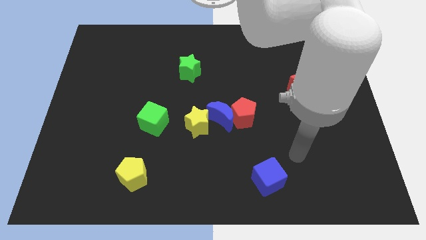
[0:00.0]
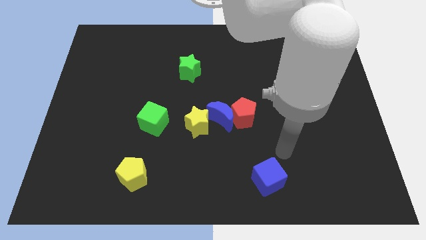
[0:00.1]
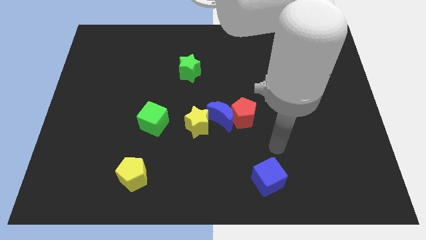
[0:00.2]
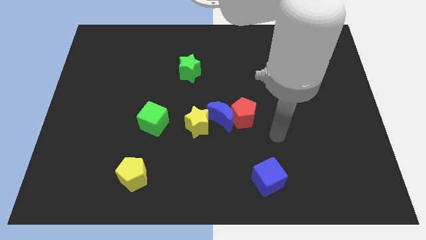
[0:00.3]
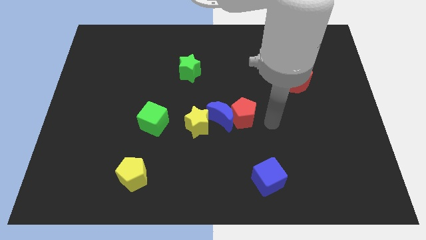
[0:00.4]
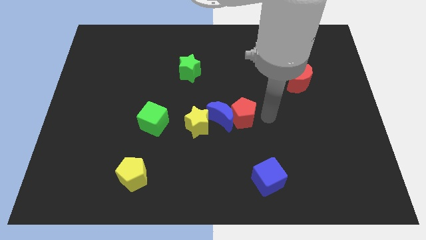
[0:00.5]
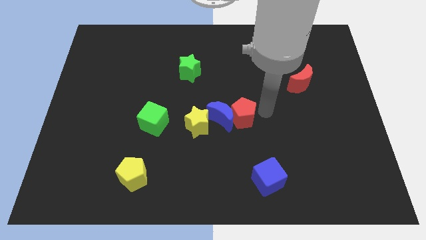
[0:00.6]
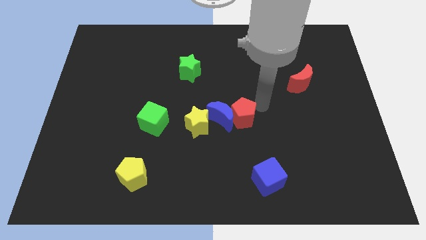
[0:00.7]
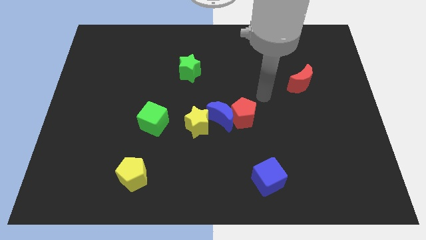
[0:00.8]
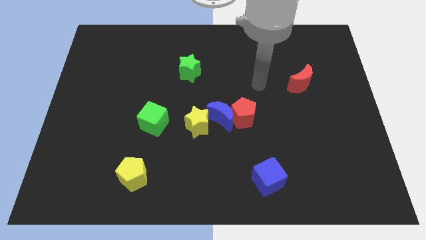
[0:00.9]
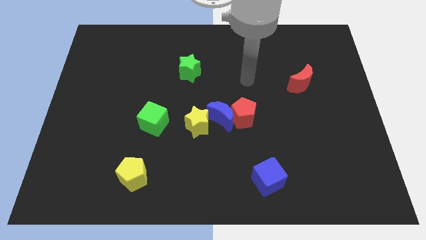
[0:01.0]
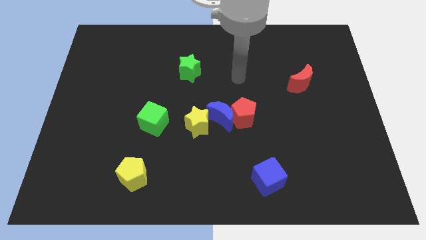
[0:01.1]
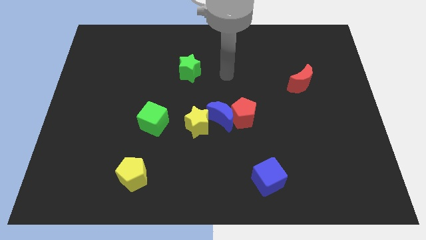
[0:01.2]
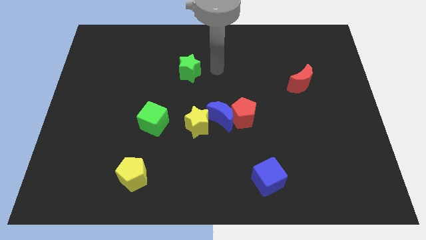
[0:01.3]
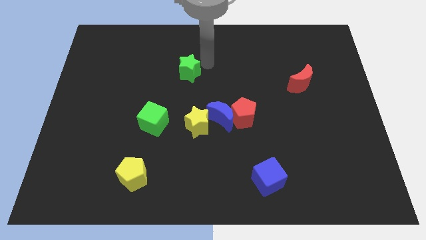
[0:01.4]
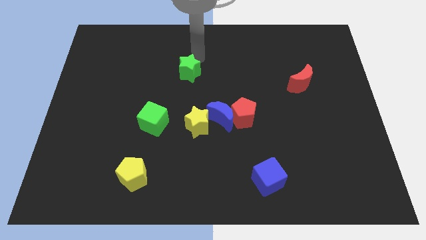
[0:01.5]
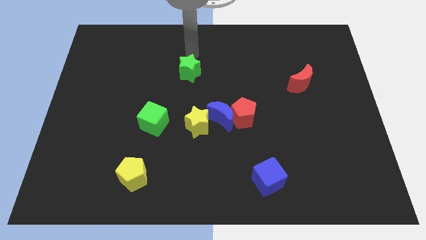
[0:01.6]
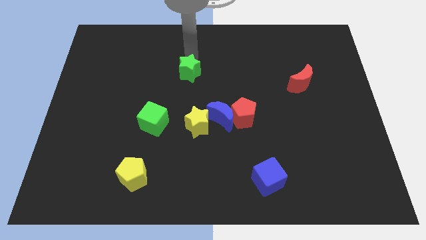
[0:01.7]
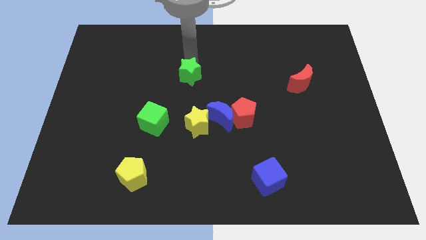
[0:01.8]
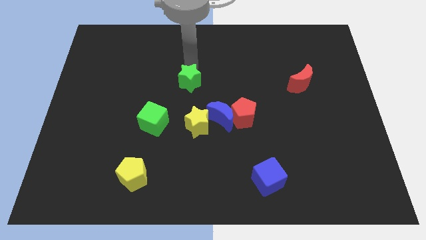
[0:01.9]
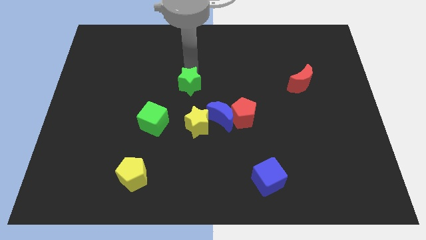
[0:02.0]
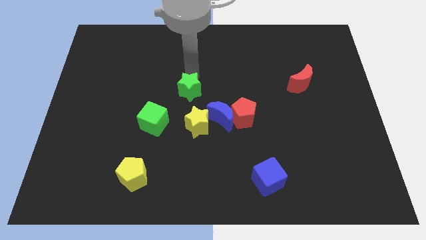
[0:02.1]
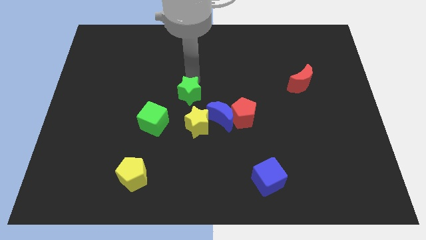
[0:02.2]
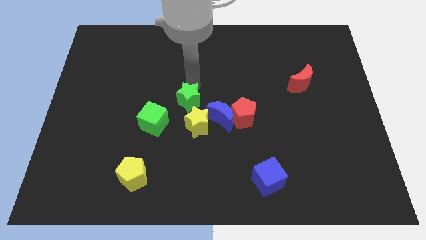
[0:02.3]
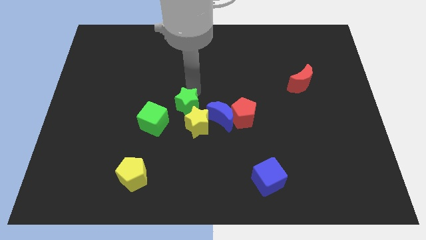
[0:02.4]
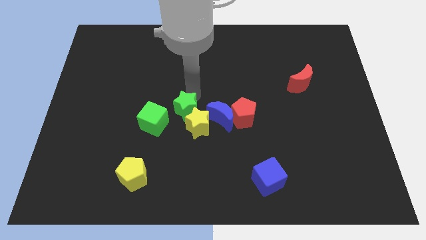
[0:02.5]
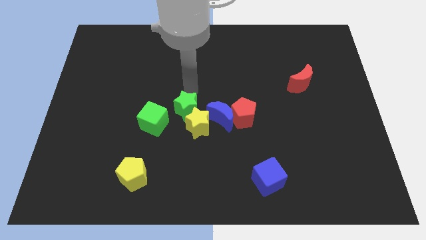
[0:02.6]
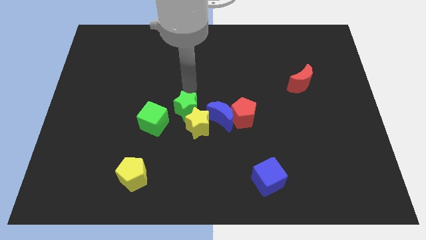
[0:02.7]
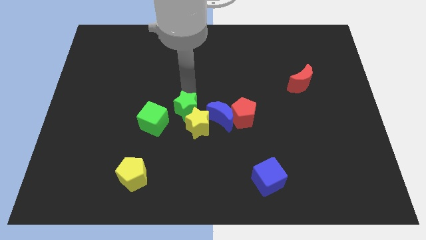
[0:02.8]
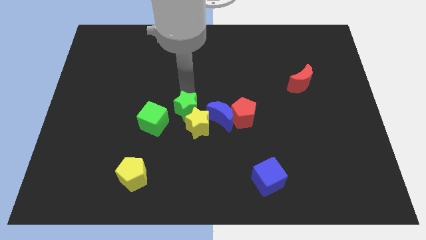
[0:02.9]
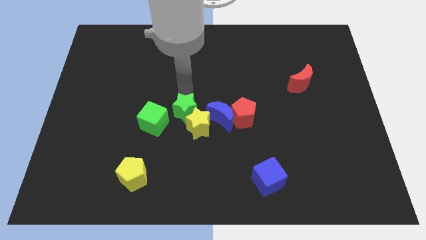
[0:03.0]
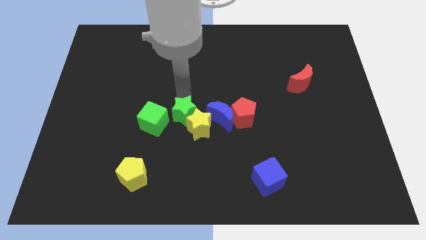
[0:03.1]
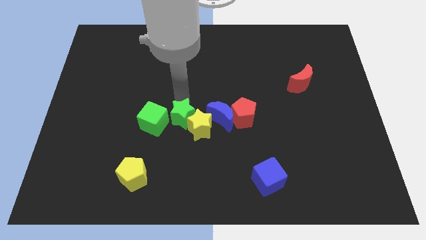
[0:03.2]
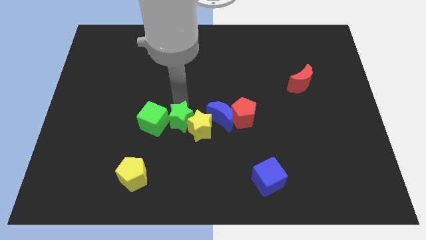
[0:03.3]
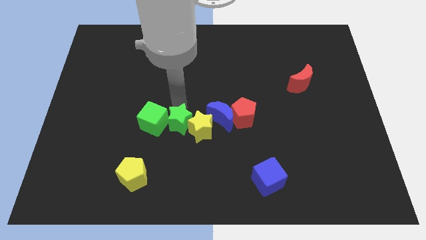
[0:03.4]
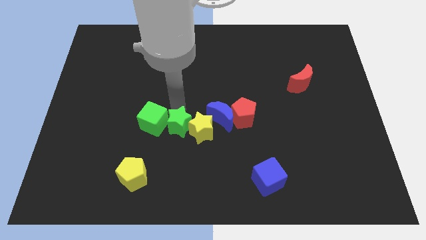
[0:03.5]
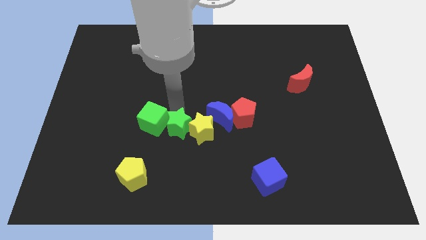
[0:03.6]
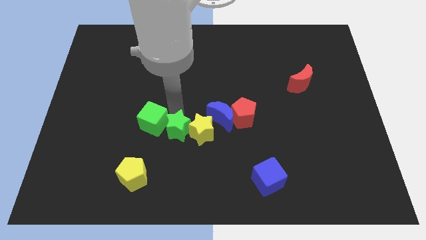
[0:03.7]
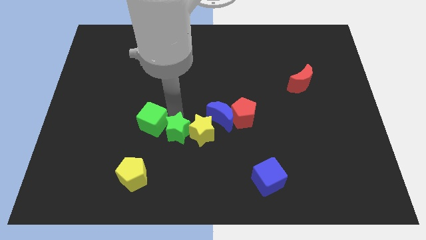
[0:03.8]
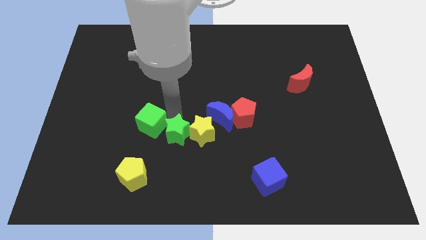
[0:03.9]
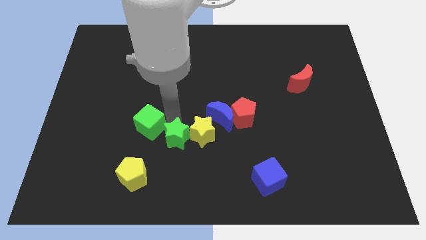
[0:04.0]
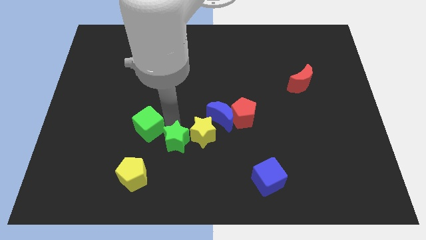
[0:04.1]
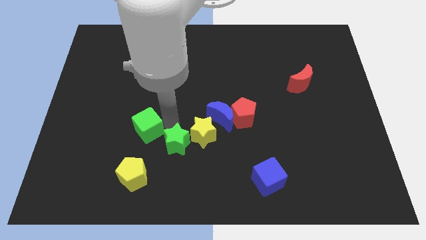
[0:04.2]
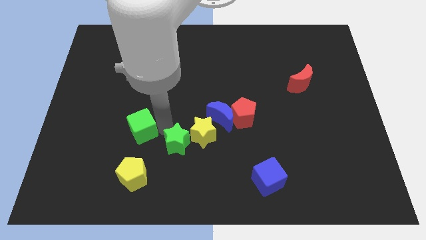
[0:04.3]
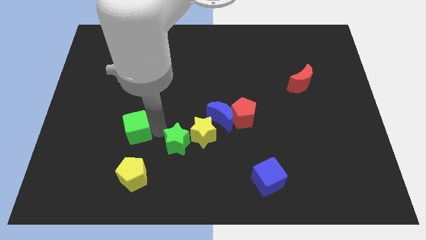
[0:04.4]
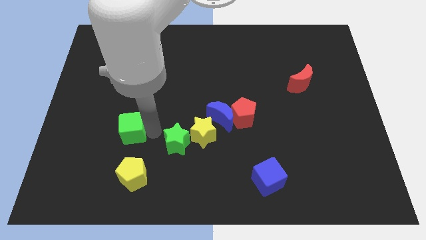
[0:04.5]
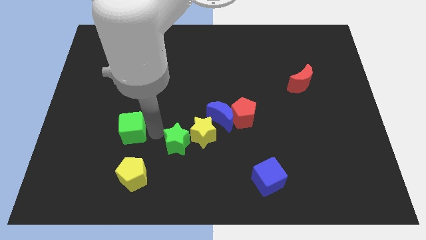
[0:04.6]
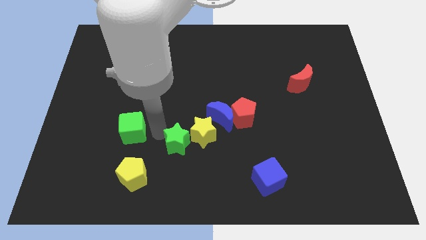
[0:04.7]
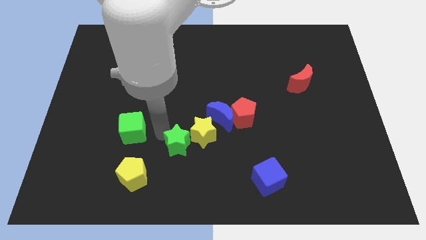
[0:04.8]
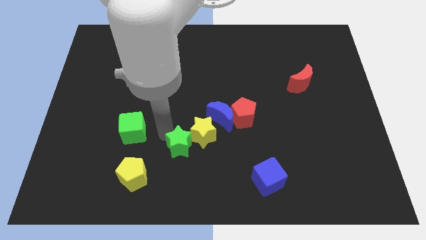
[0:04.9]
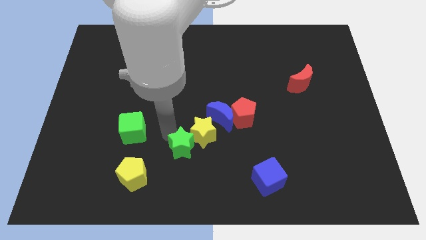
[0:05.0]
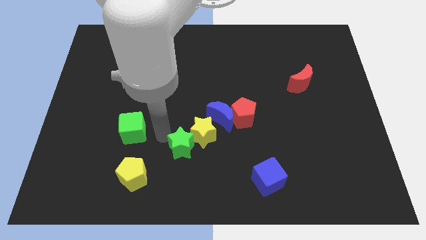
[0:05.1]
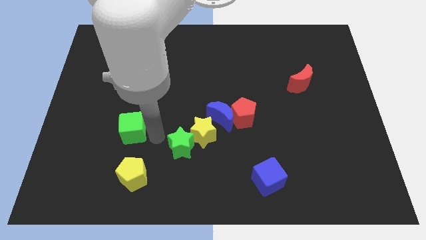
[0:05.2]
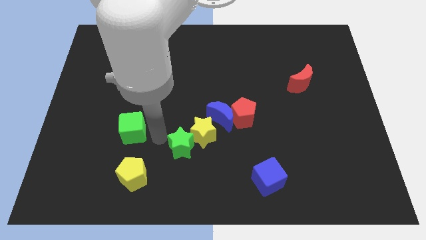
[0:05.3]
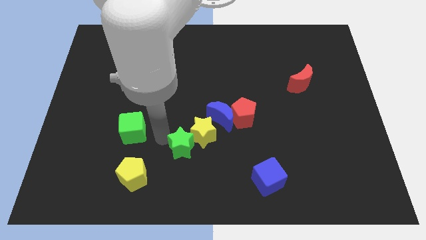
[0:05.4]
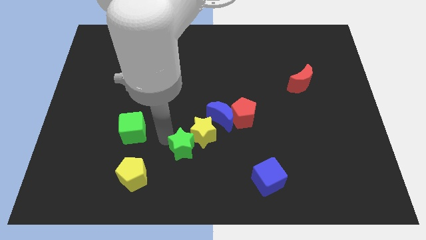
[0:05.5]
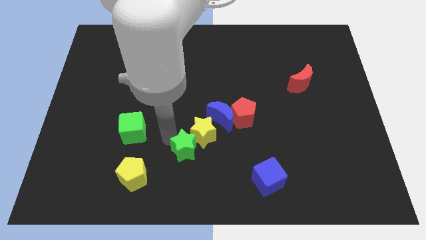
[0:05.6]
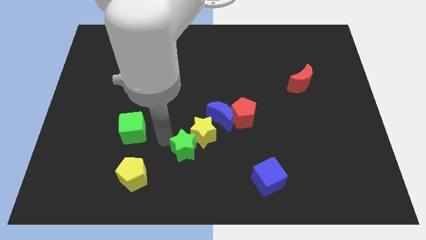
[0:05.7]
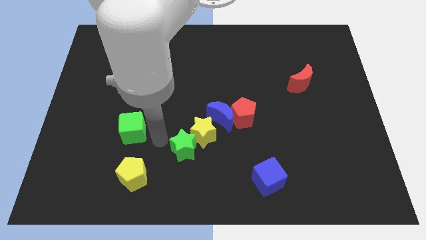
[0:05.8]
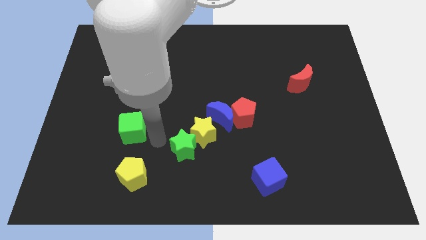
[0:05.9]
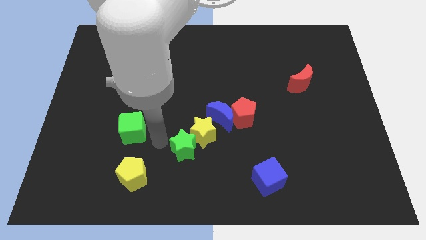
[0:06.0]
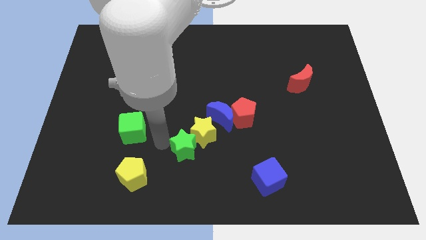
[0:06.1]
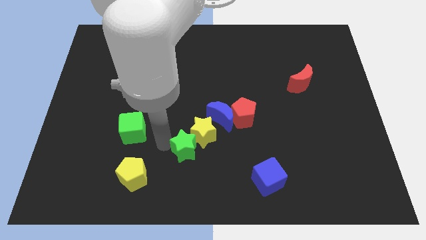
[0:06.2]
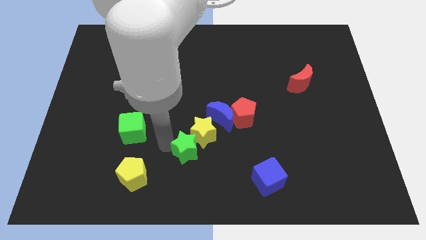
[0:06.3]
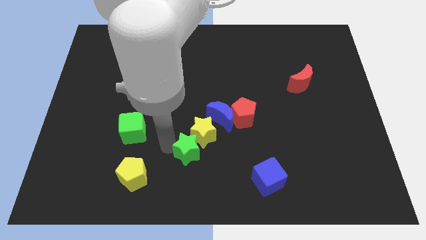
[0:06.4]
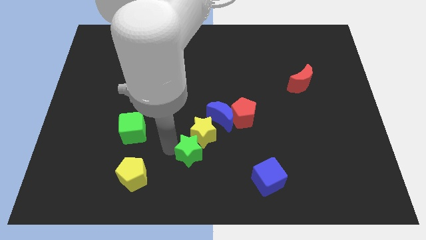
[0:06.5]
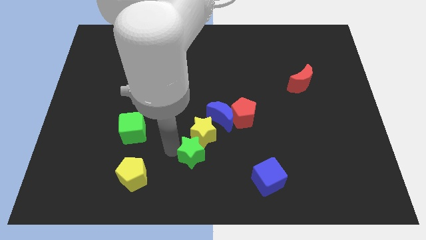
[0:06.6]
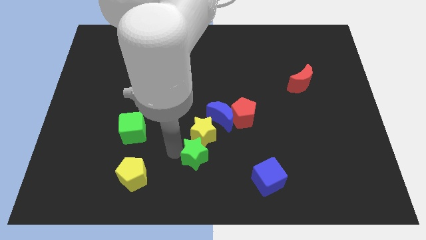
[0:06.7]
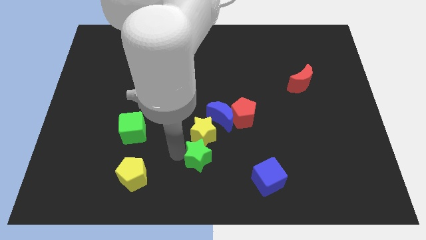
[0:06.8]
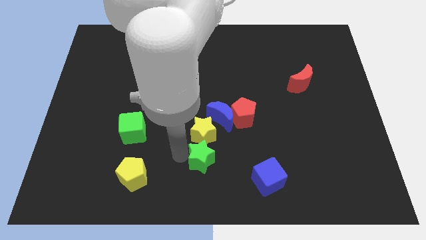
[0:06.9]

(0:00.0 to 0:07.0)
slide the green star to the bottom of the blue moon
